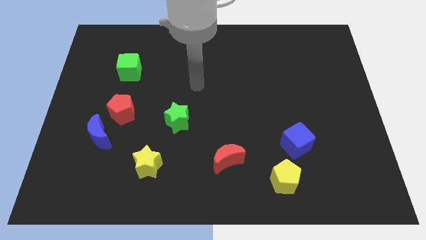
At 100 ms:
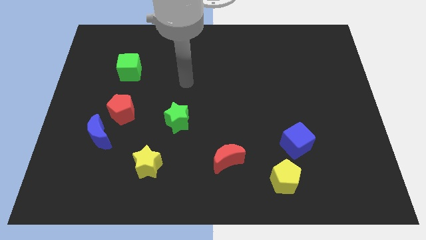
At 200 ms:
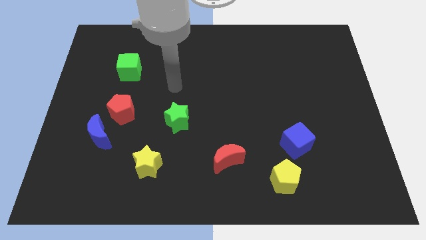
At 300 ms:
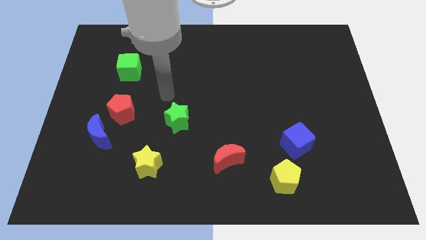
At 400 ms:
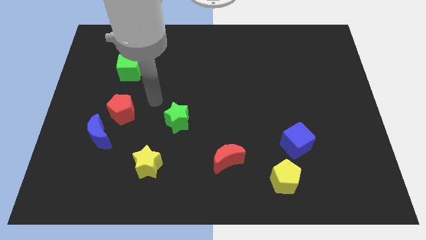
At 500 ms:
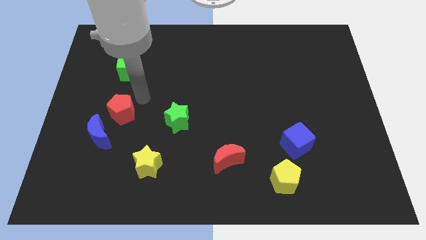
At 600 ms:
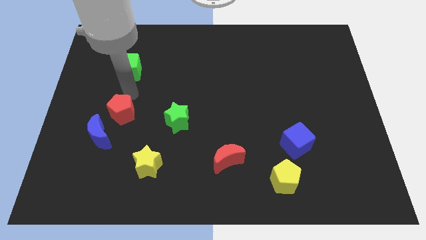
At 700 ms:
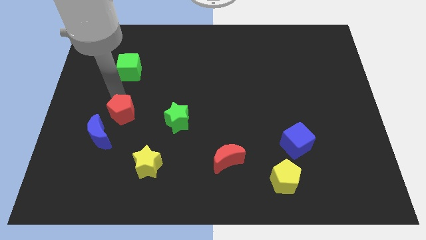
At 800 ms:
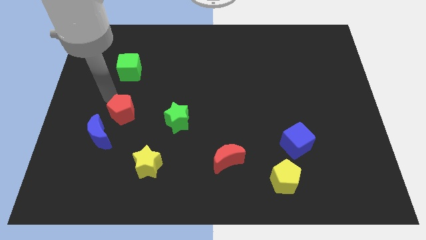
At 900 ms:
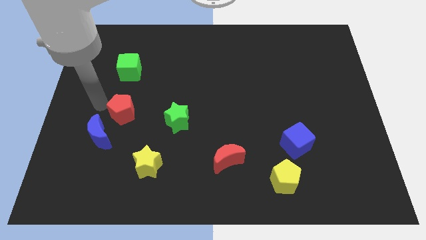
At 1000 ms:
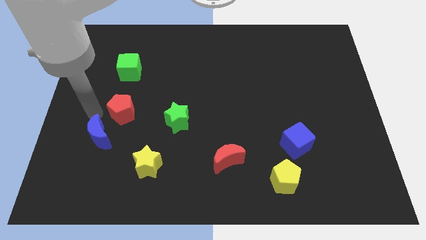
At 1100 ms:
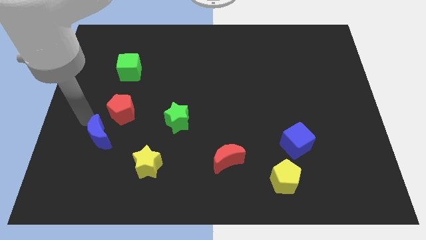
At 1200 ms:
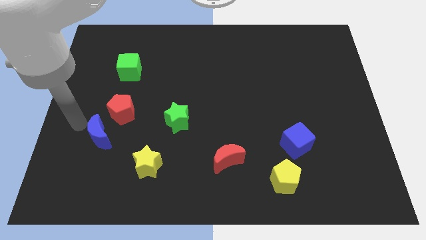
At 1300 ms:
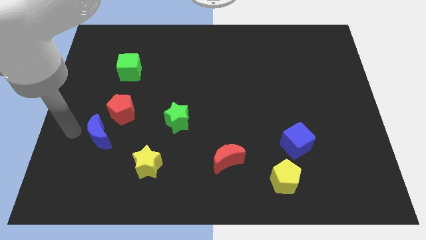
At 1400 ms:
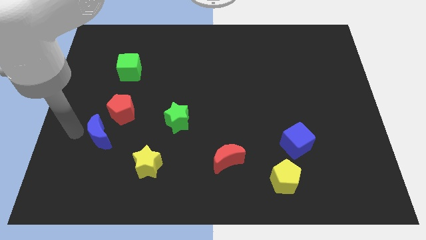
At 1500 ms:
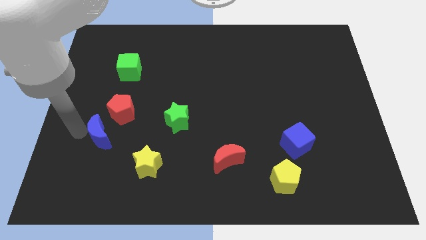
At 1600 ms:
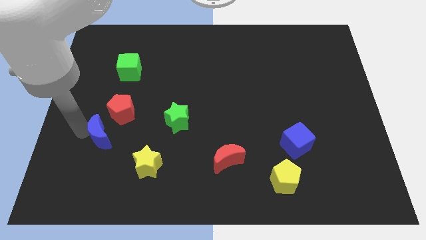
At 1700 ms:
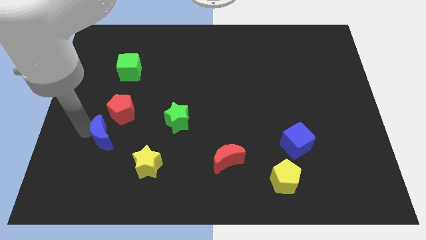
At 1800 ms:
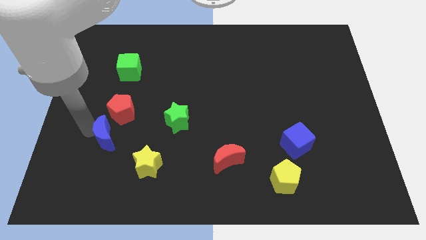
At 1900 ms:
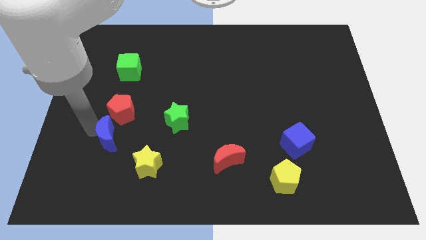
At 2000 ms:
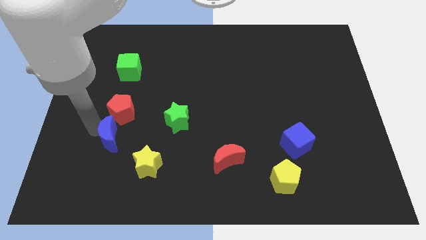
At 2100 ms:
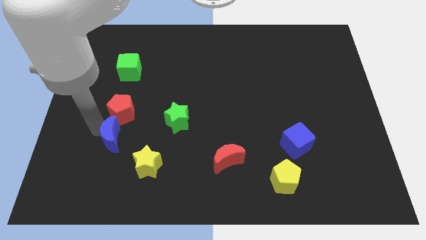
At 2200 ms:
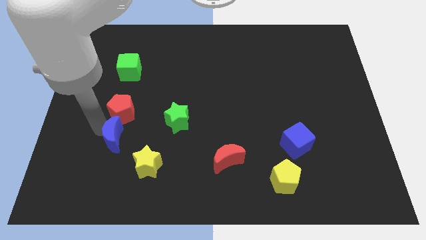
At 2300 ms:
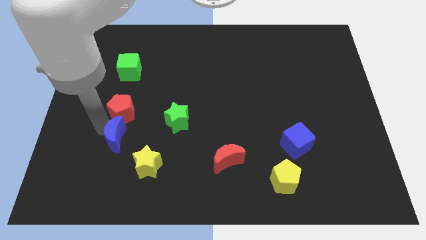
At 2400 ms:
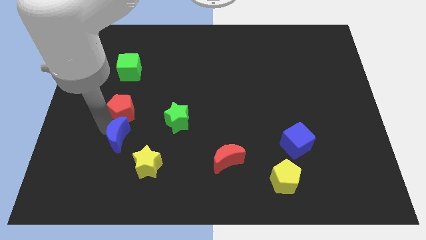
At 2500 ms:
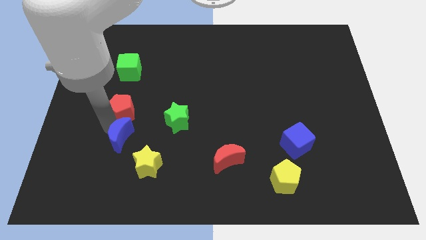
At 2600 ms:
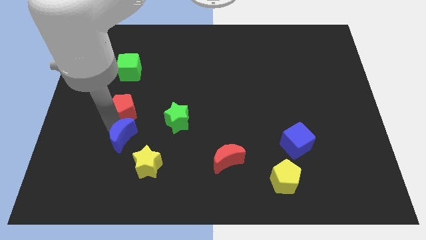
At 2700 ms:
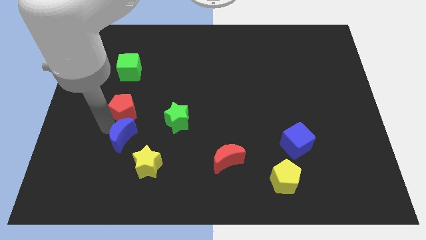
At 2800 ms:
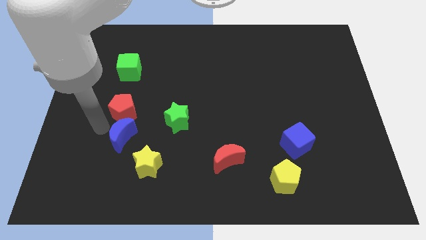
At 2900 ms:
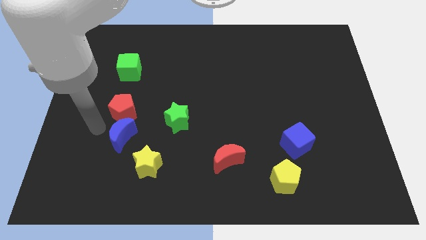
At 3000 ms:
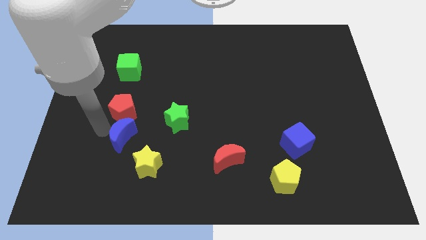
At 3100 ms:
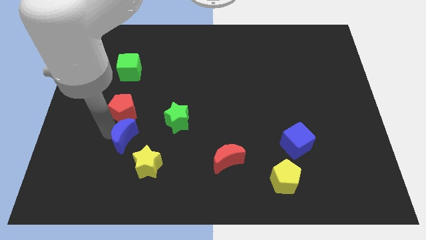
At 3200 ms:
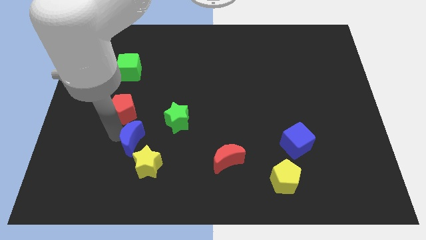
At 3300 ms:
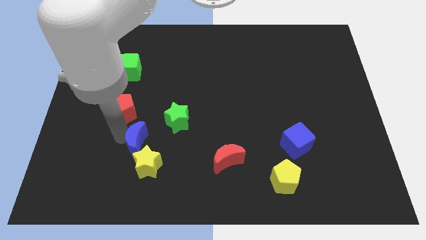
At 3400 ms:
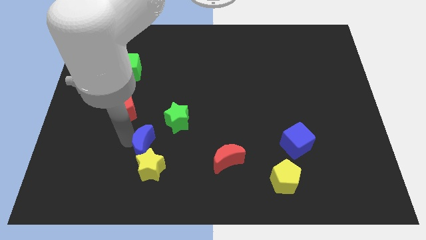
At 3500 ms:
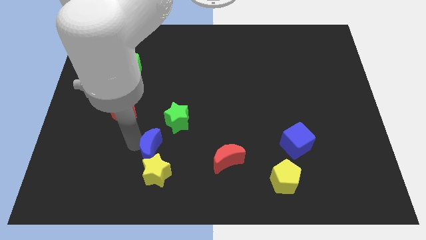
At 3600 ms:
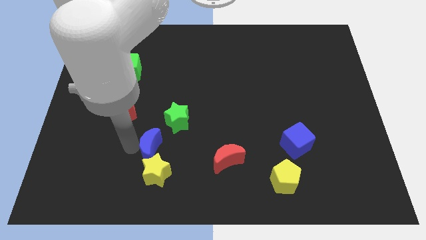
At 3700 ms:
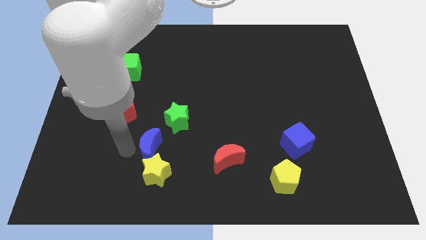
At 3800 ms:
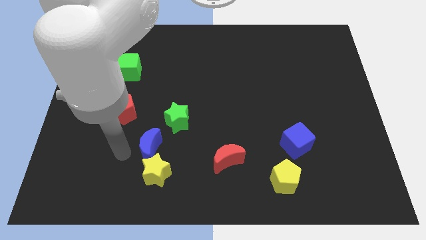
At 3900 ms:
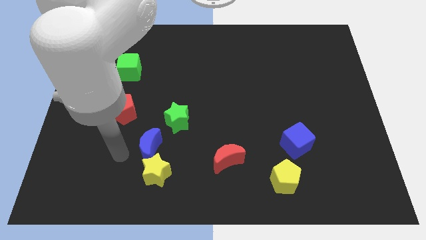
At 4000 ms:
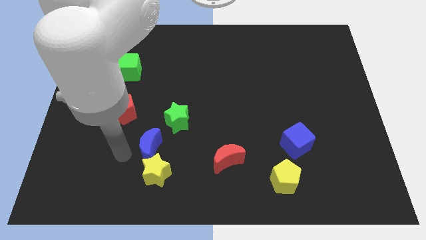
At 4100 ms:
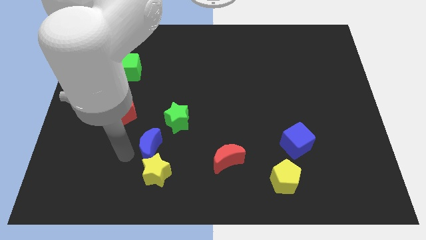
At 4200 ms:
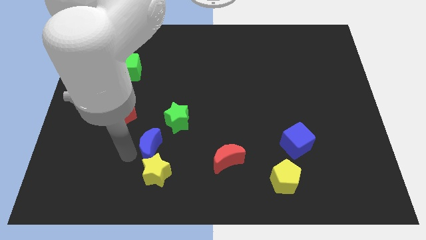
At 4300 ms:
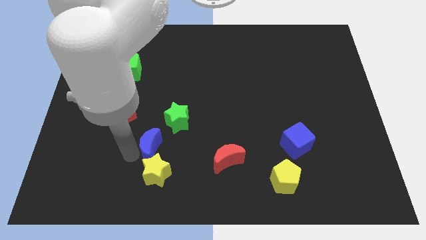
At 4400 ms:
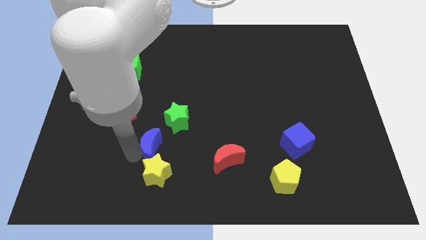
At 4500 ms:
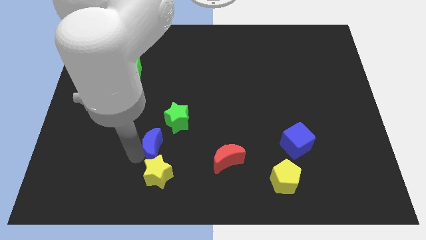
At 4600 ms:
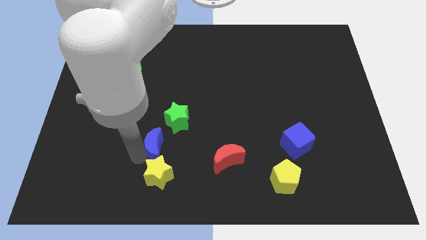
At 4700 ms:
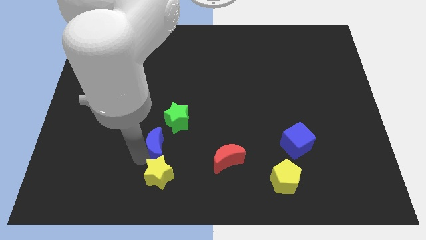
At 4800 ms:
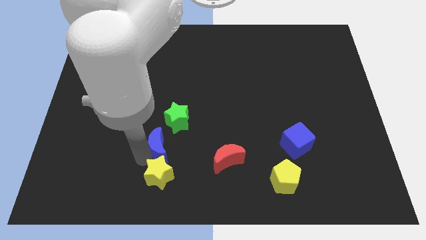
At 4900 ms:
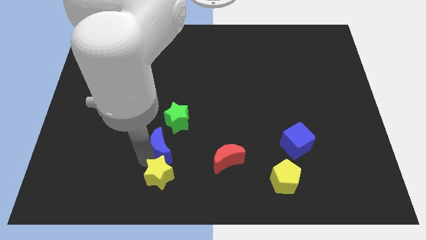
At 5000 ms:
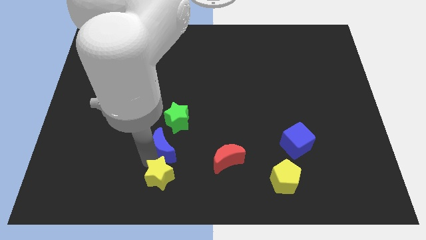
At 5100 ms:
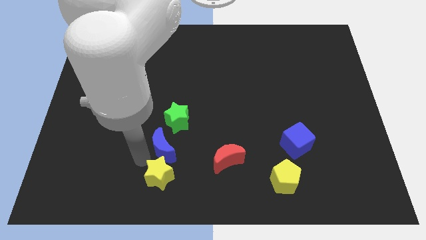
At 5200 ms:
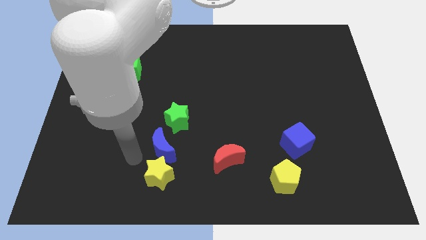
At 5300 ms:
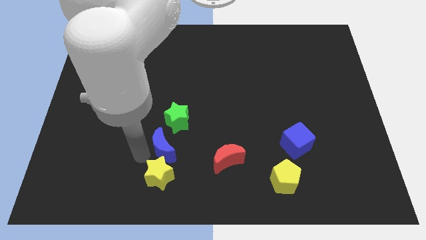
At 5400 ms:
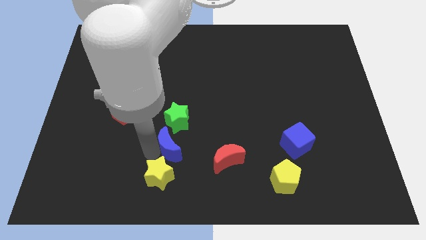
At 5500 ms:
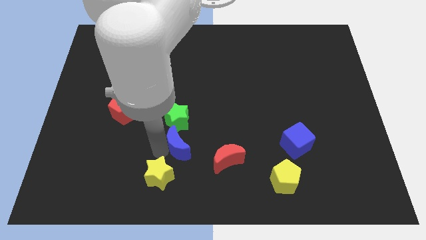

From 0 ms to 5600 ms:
push the blue moon to the bottom right side of the green star

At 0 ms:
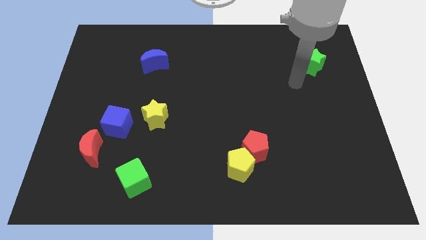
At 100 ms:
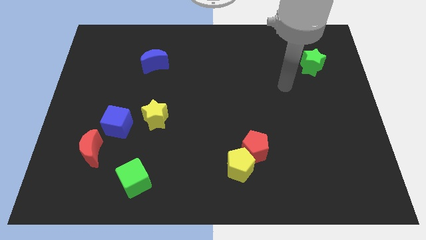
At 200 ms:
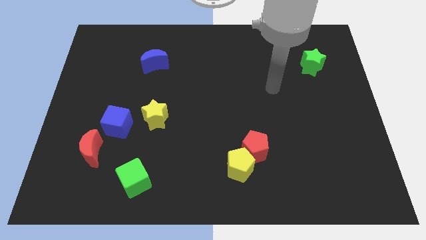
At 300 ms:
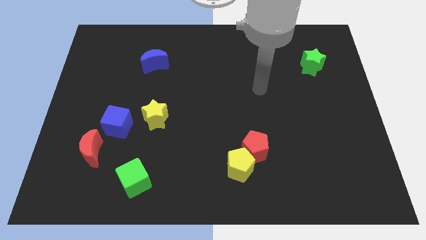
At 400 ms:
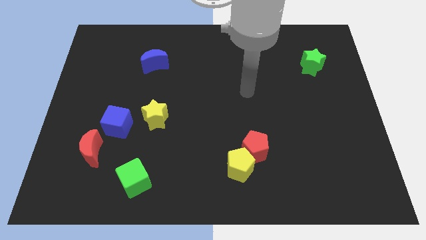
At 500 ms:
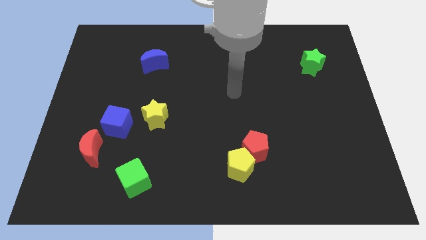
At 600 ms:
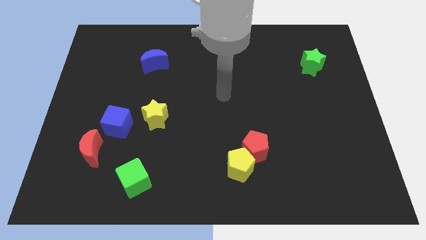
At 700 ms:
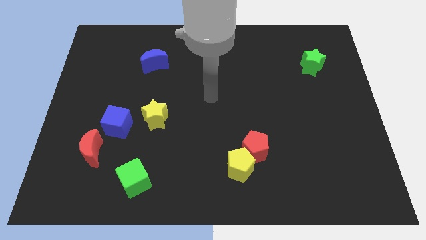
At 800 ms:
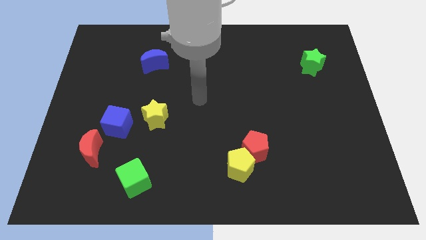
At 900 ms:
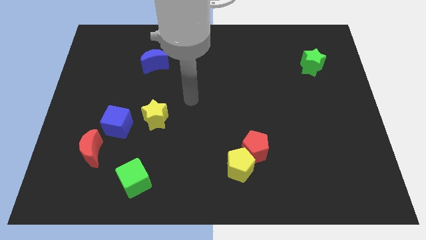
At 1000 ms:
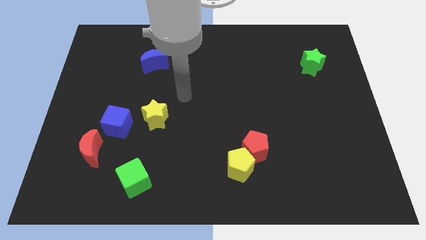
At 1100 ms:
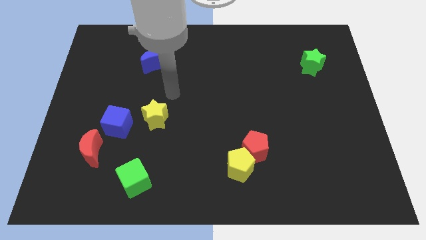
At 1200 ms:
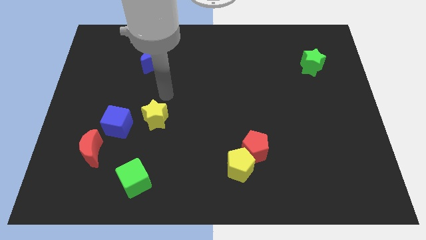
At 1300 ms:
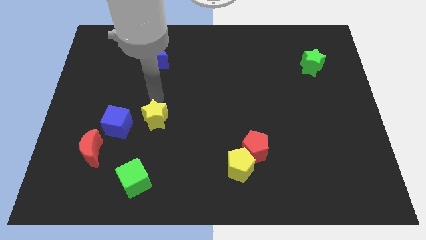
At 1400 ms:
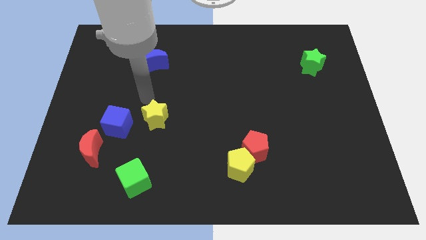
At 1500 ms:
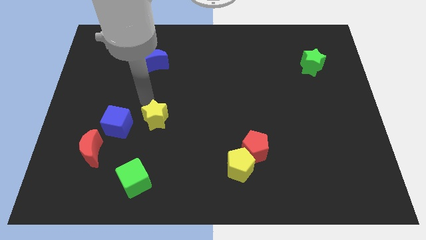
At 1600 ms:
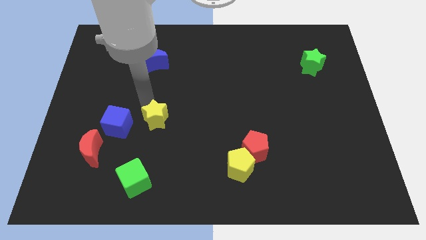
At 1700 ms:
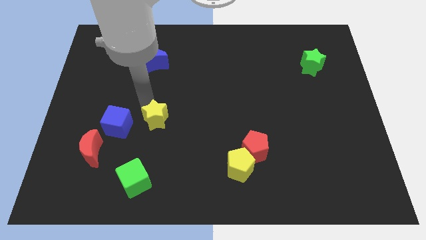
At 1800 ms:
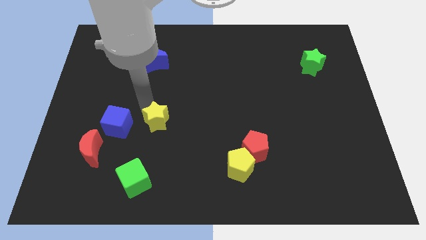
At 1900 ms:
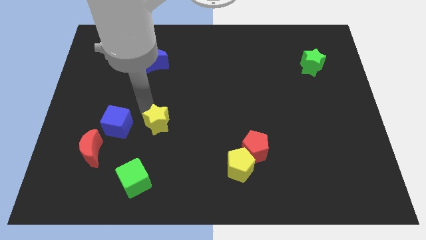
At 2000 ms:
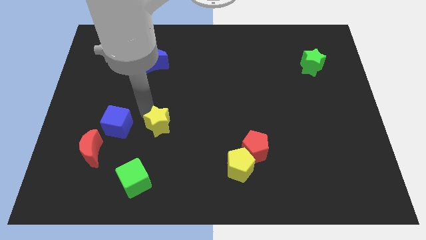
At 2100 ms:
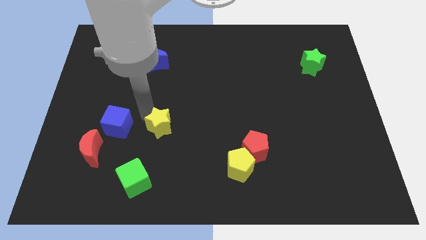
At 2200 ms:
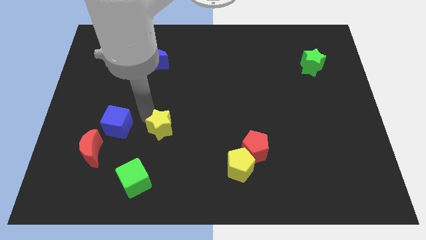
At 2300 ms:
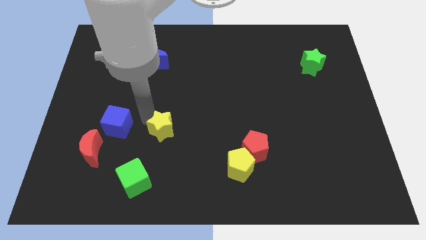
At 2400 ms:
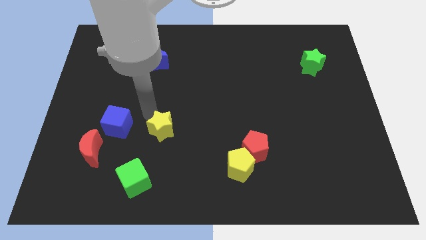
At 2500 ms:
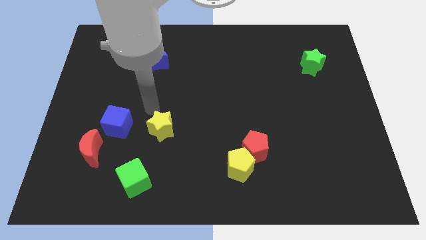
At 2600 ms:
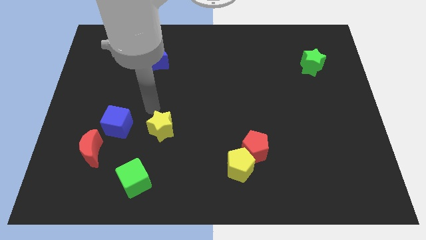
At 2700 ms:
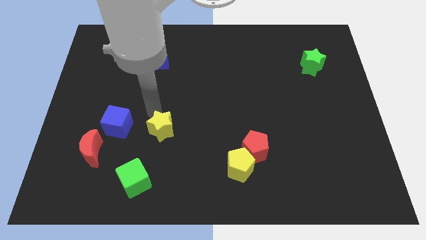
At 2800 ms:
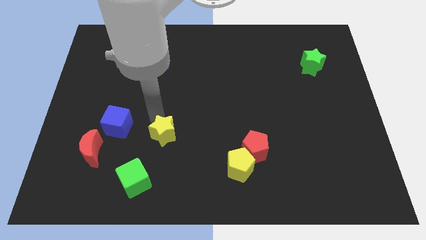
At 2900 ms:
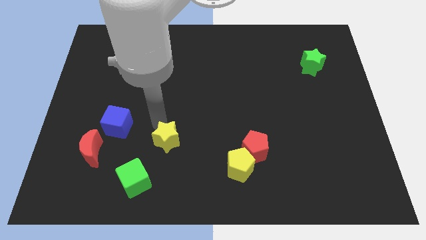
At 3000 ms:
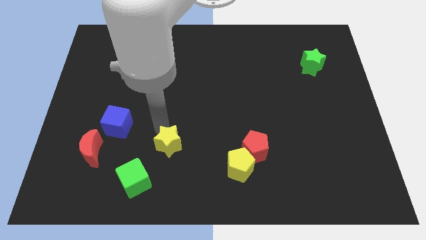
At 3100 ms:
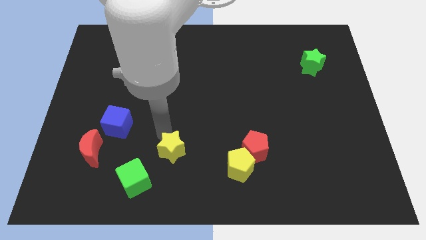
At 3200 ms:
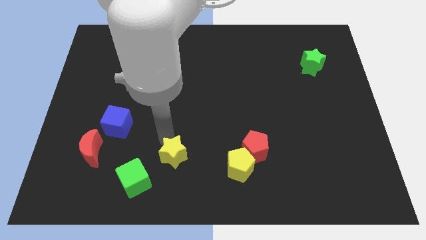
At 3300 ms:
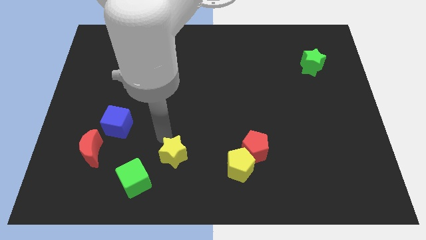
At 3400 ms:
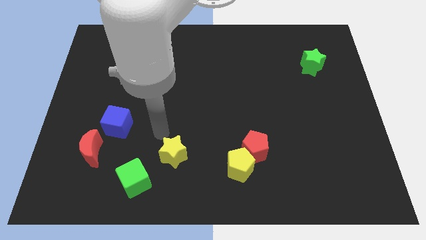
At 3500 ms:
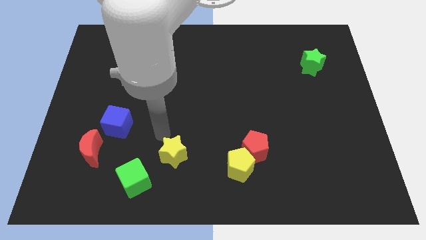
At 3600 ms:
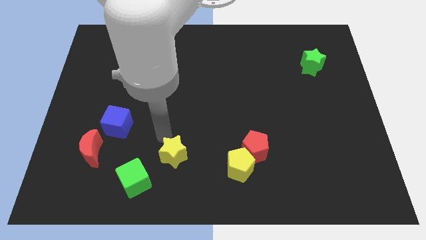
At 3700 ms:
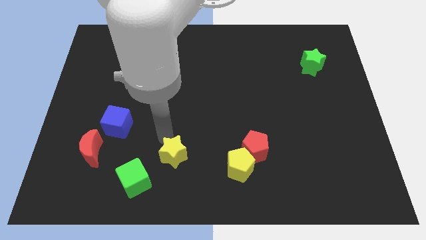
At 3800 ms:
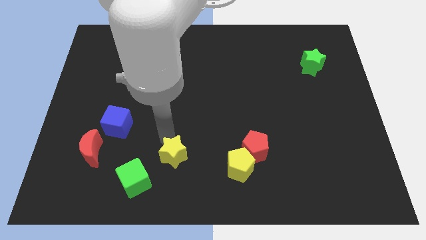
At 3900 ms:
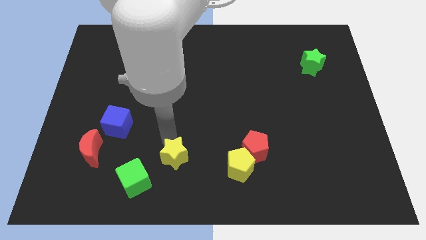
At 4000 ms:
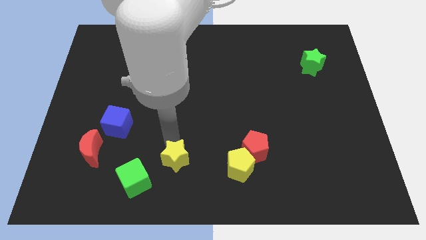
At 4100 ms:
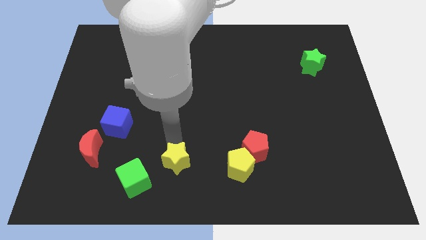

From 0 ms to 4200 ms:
put the yellow star to the right side of the green cube
